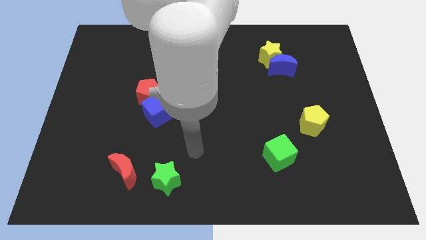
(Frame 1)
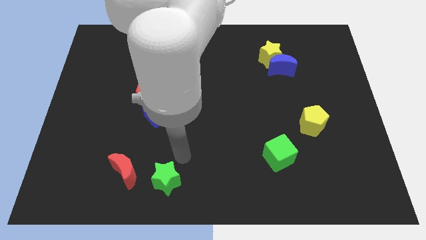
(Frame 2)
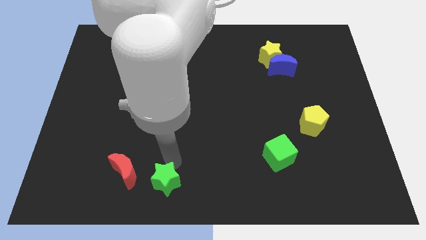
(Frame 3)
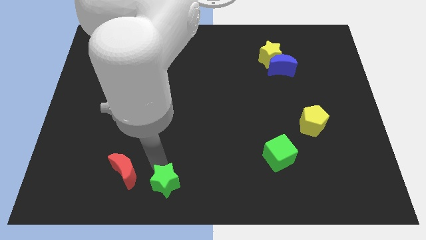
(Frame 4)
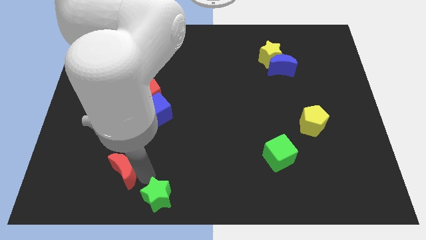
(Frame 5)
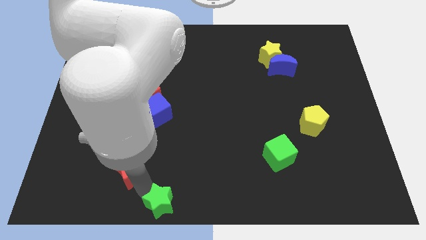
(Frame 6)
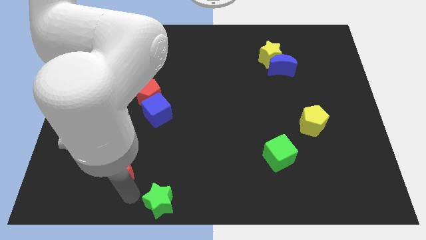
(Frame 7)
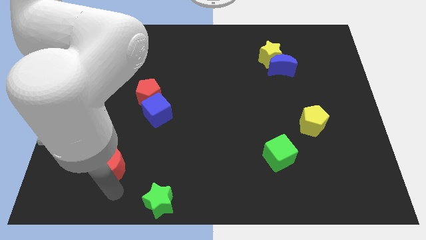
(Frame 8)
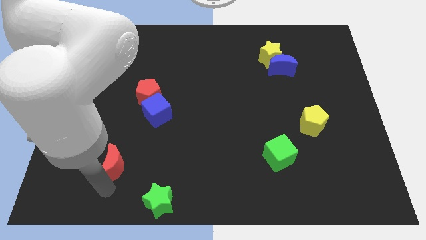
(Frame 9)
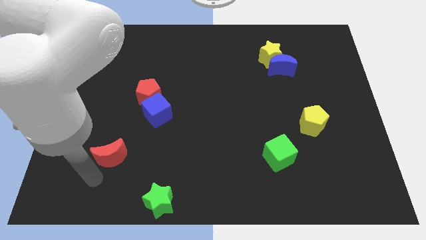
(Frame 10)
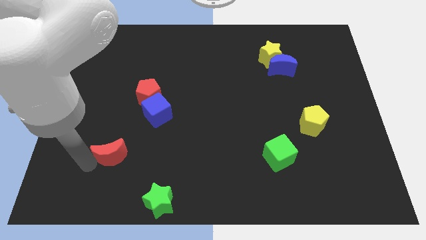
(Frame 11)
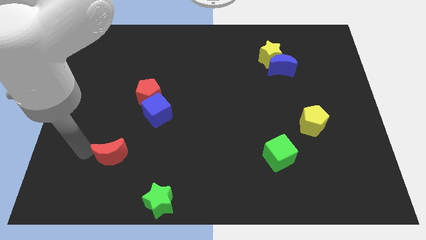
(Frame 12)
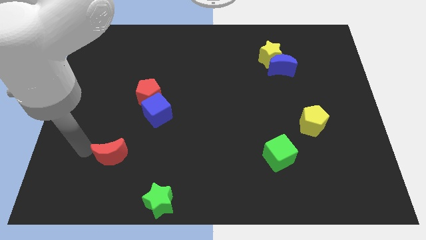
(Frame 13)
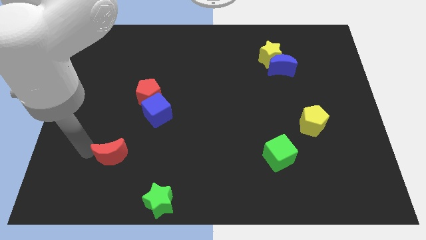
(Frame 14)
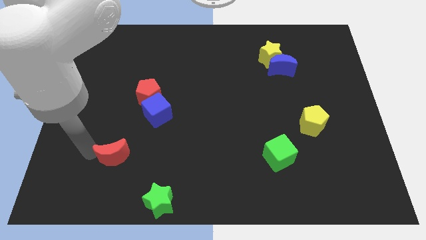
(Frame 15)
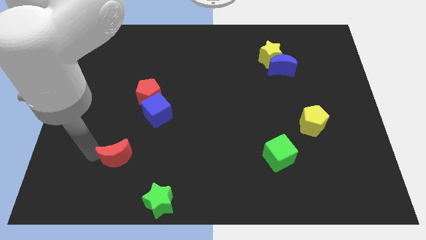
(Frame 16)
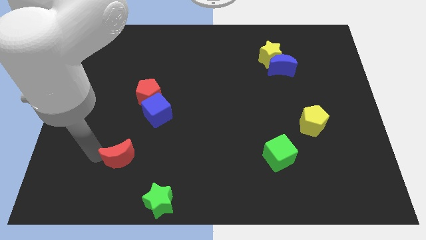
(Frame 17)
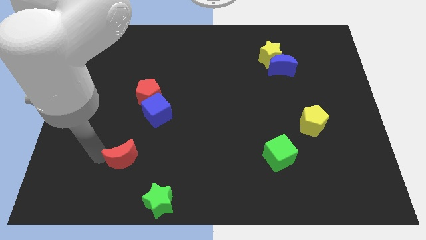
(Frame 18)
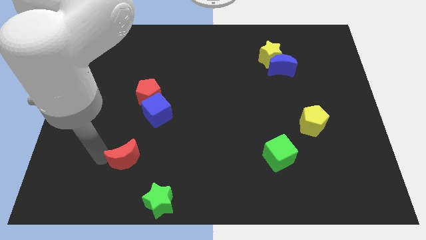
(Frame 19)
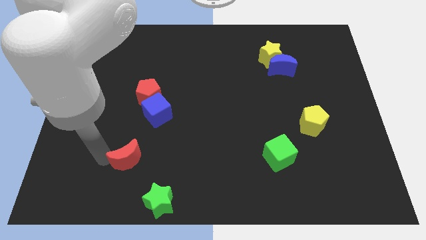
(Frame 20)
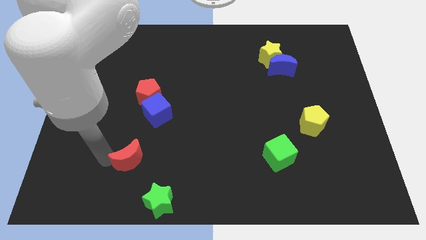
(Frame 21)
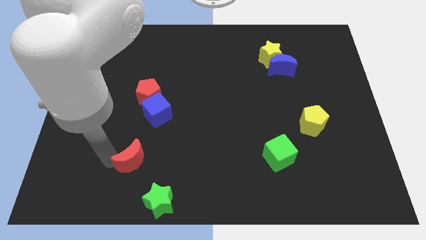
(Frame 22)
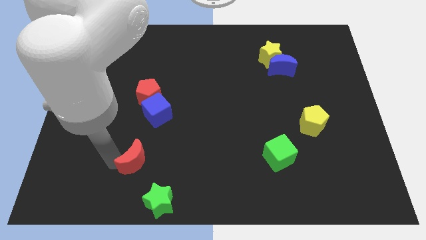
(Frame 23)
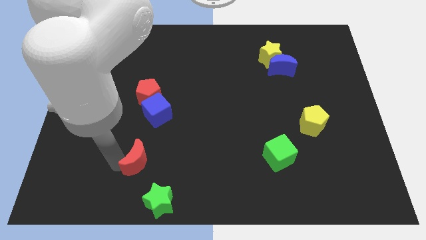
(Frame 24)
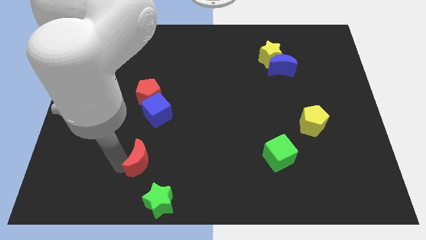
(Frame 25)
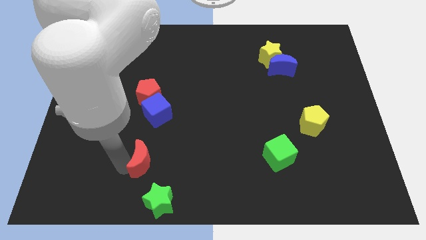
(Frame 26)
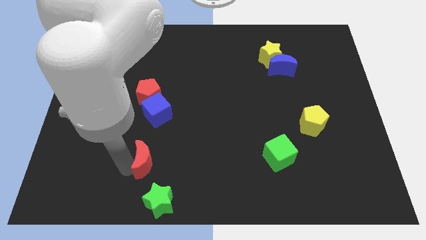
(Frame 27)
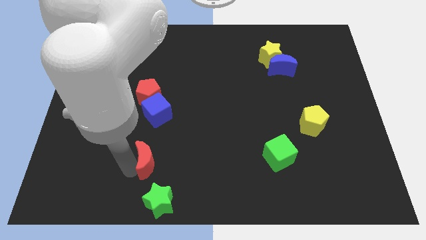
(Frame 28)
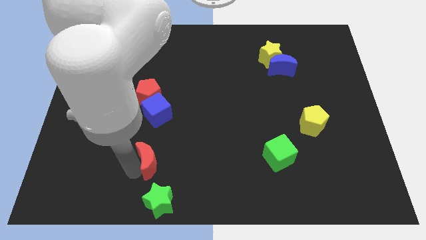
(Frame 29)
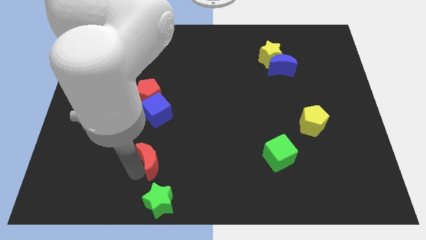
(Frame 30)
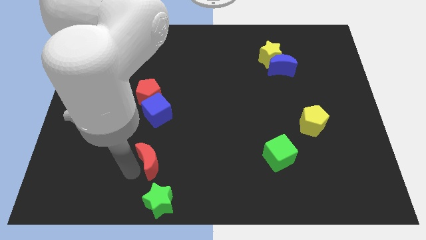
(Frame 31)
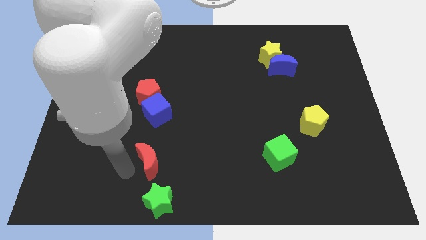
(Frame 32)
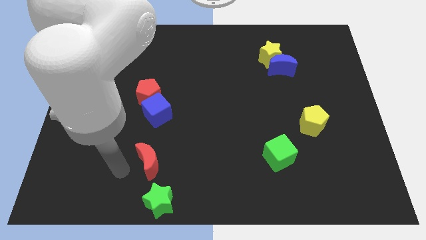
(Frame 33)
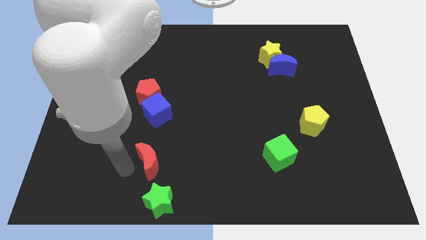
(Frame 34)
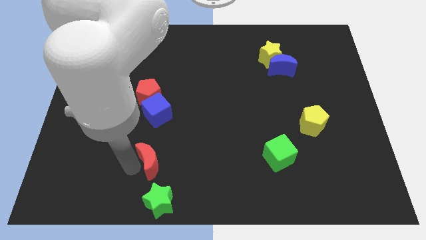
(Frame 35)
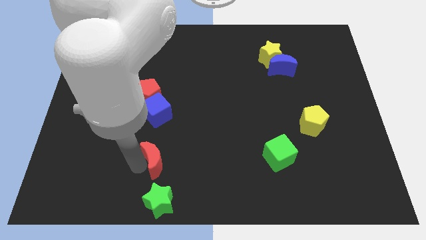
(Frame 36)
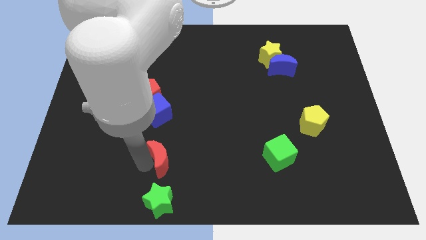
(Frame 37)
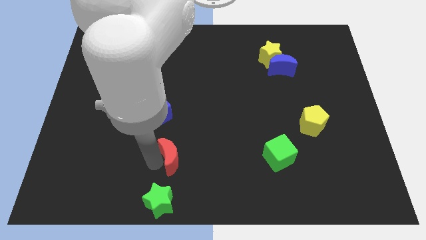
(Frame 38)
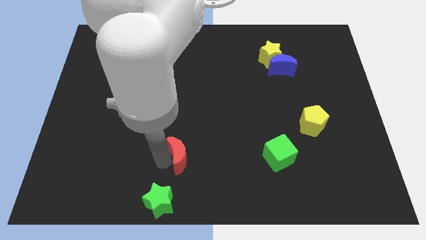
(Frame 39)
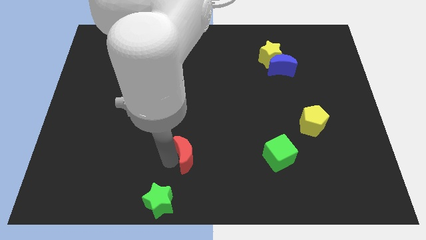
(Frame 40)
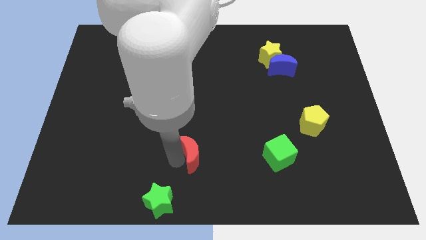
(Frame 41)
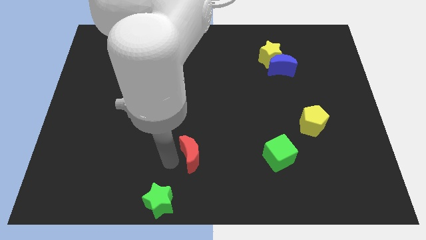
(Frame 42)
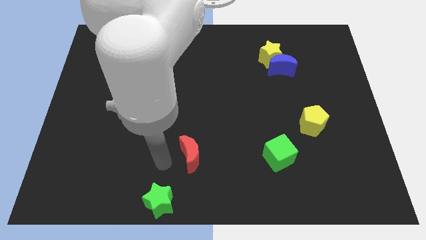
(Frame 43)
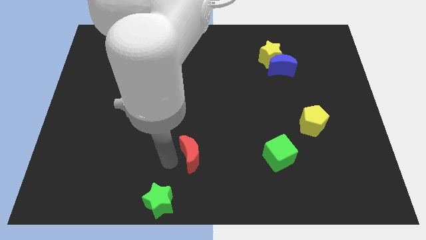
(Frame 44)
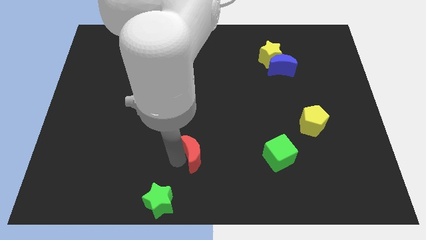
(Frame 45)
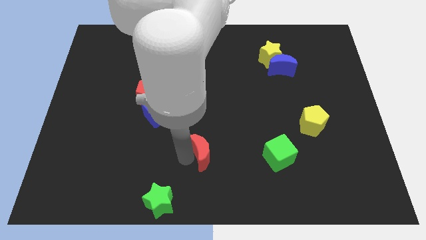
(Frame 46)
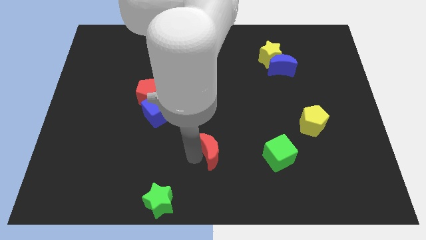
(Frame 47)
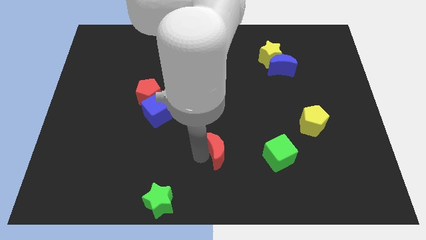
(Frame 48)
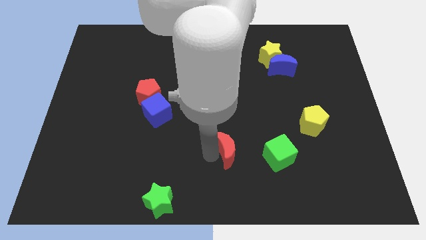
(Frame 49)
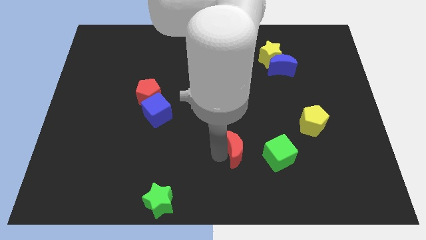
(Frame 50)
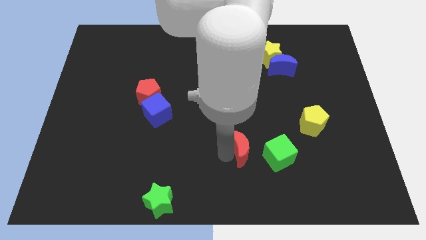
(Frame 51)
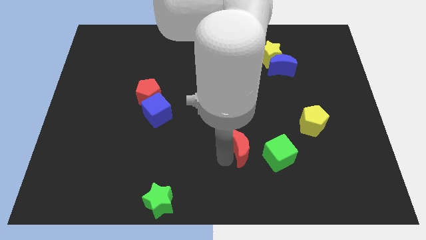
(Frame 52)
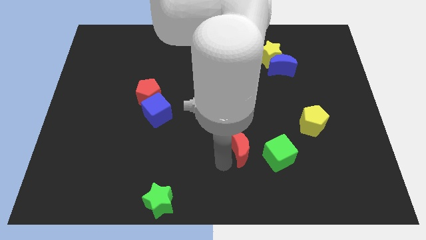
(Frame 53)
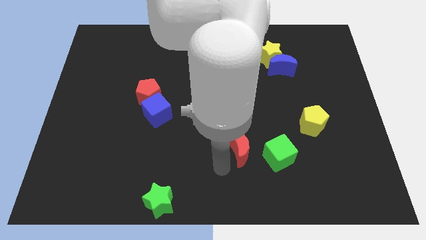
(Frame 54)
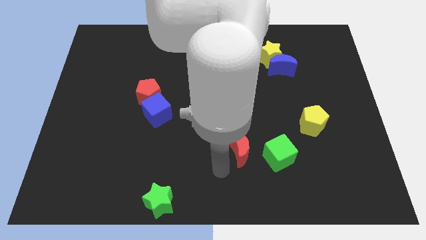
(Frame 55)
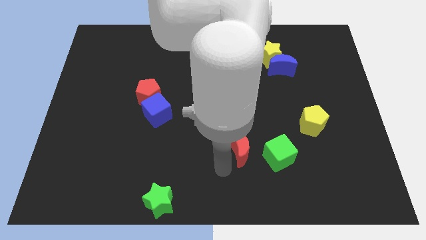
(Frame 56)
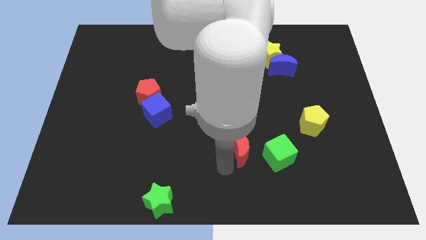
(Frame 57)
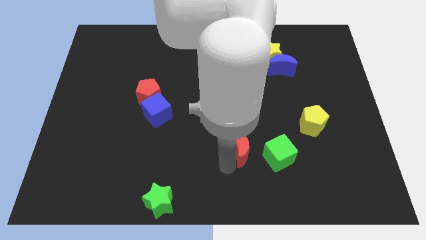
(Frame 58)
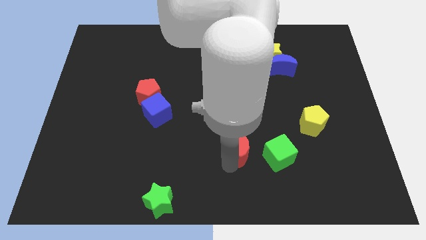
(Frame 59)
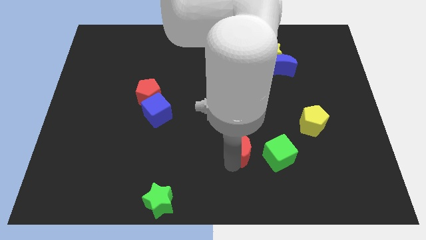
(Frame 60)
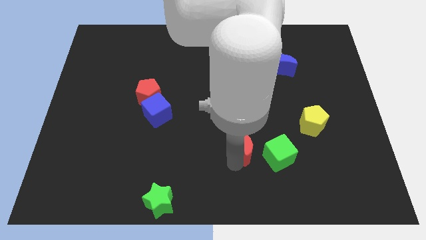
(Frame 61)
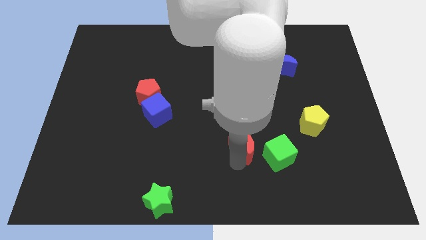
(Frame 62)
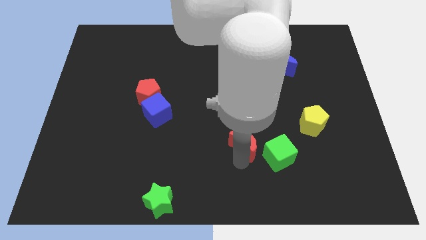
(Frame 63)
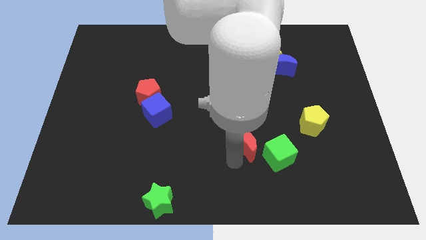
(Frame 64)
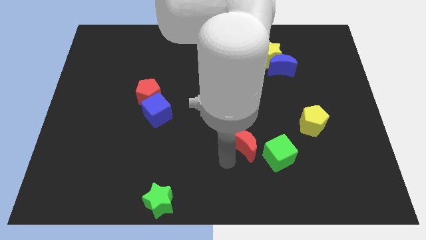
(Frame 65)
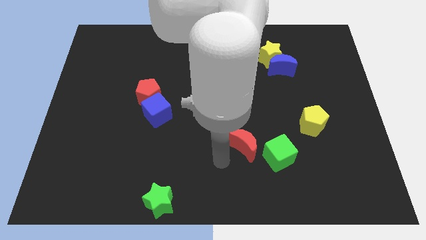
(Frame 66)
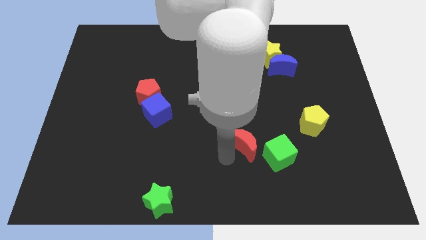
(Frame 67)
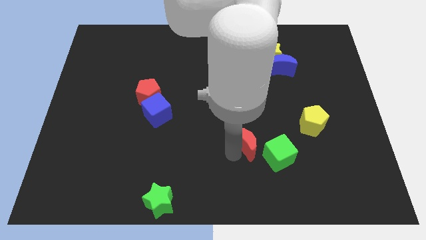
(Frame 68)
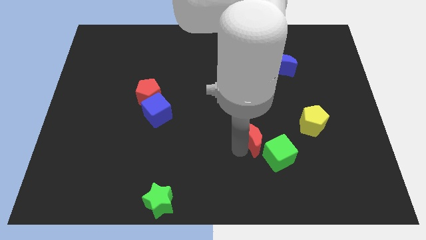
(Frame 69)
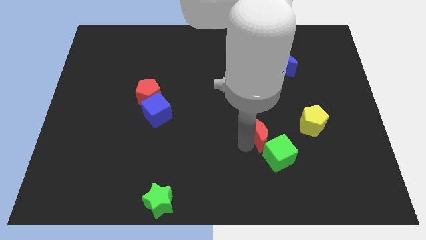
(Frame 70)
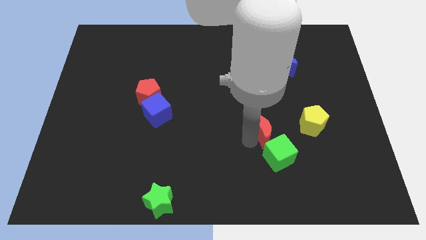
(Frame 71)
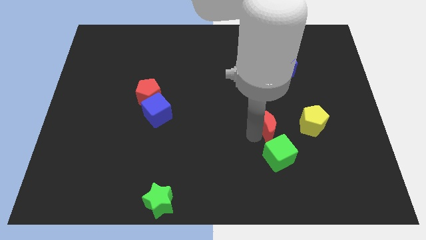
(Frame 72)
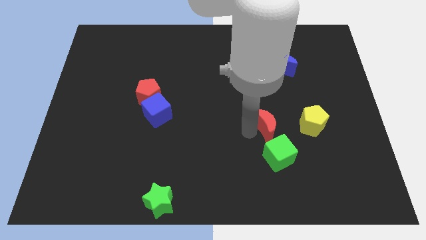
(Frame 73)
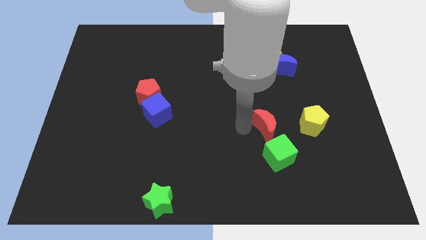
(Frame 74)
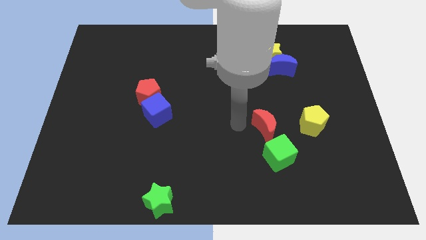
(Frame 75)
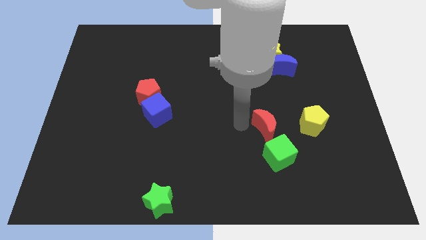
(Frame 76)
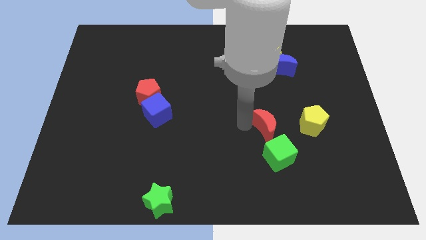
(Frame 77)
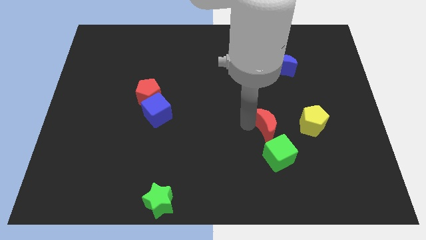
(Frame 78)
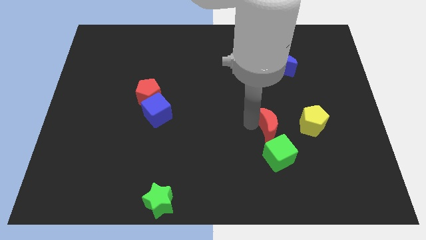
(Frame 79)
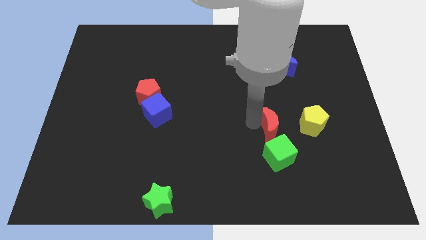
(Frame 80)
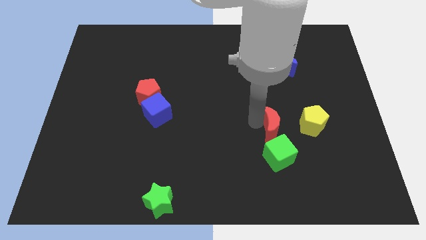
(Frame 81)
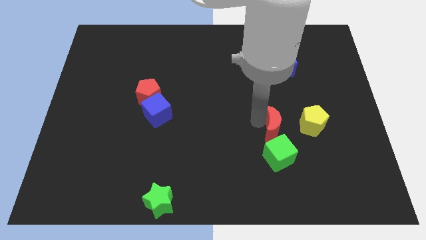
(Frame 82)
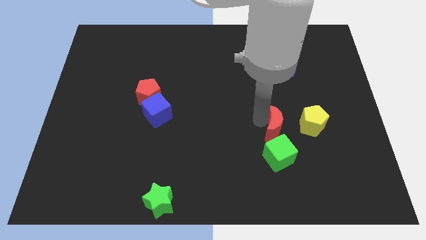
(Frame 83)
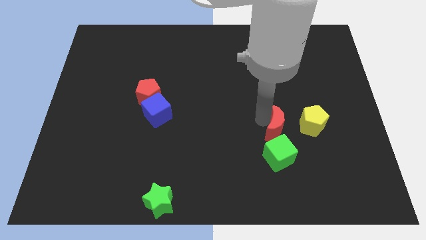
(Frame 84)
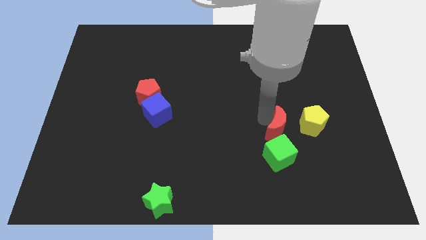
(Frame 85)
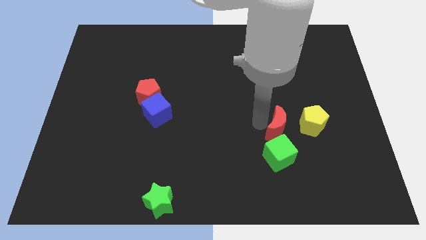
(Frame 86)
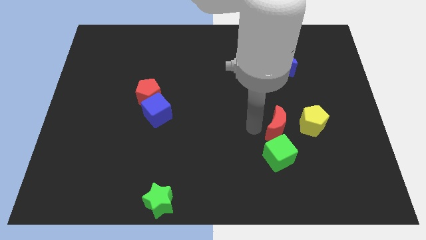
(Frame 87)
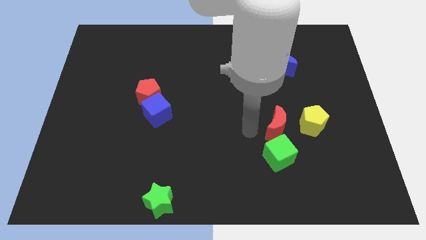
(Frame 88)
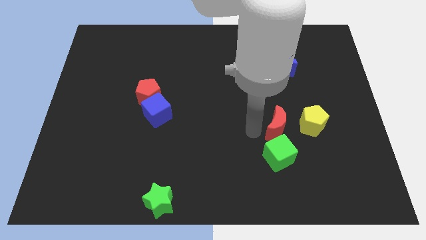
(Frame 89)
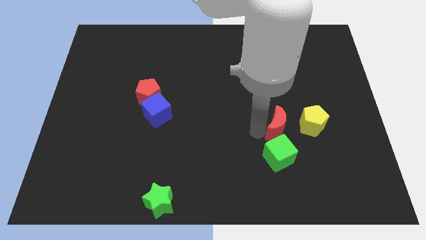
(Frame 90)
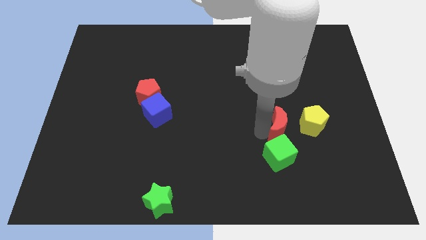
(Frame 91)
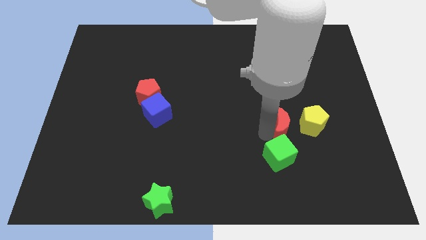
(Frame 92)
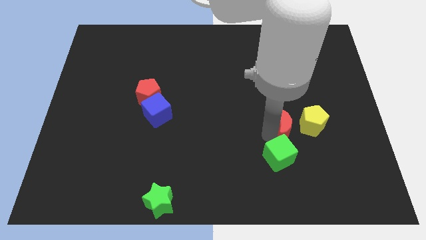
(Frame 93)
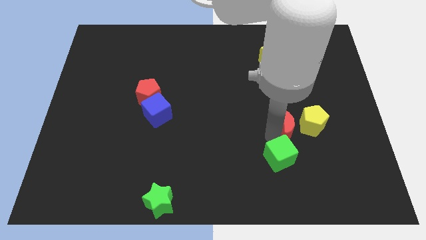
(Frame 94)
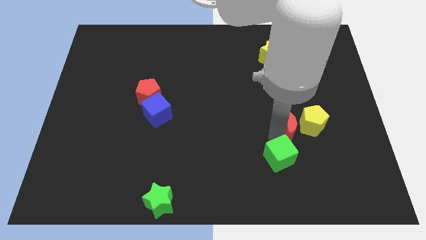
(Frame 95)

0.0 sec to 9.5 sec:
push the red moon close to the yellow pentagon
